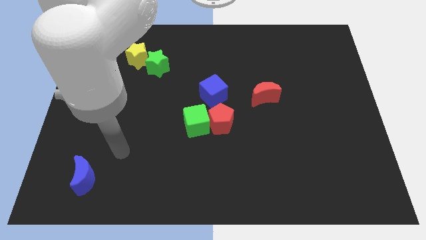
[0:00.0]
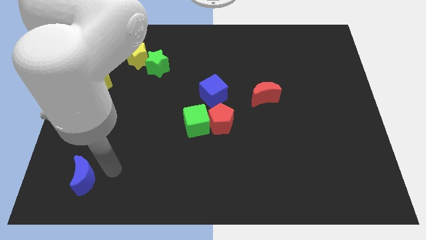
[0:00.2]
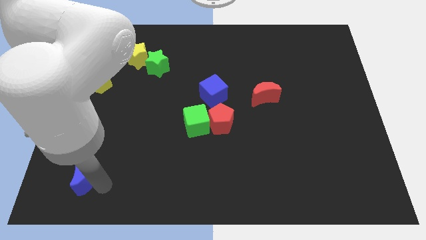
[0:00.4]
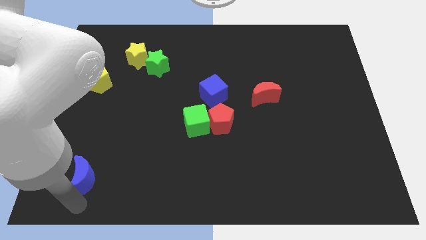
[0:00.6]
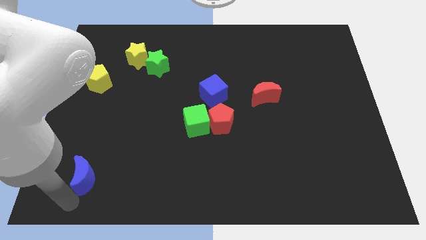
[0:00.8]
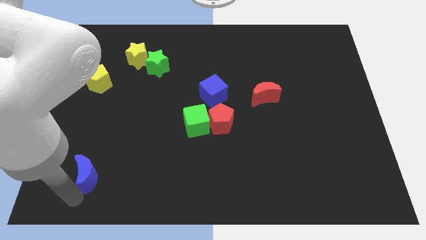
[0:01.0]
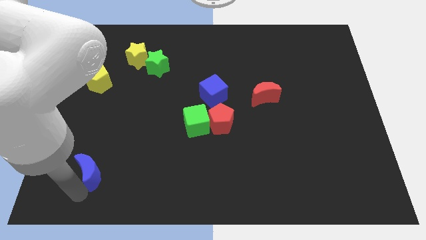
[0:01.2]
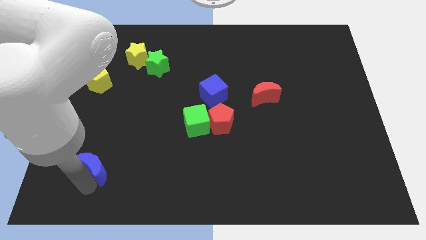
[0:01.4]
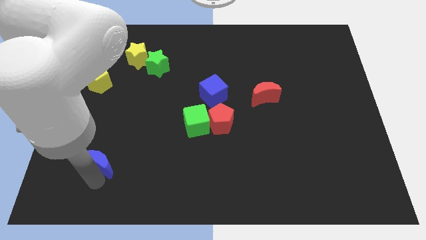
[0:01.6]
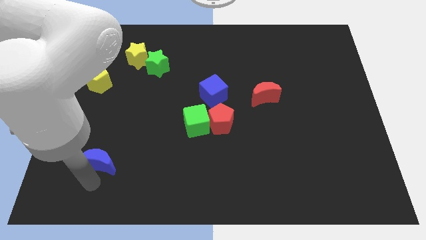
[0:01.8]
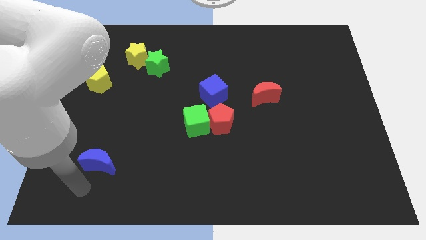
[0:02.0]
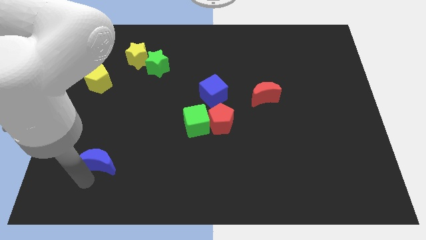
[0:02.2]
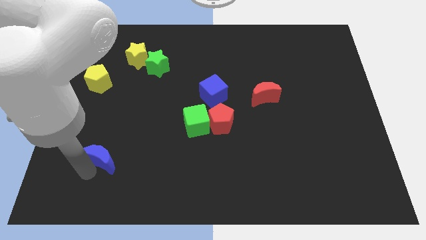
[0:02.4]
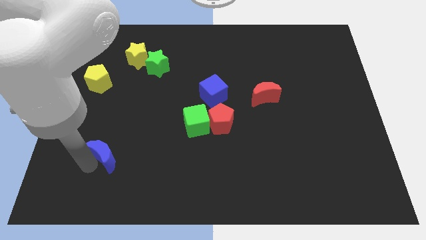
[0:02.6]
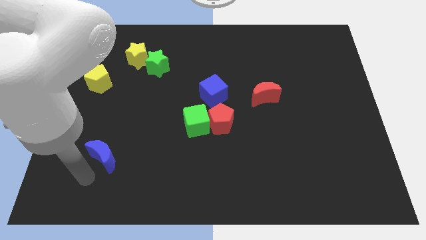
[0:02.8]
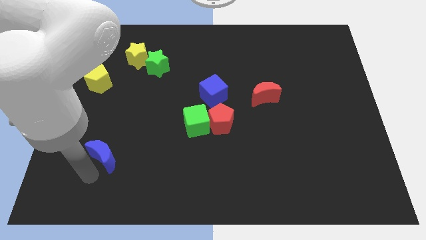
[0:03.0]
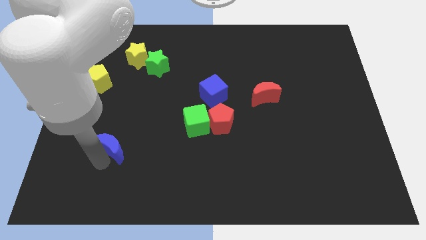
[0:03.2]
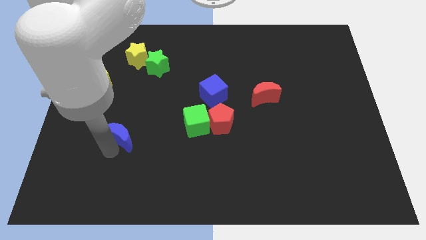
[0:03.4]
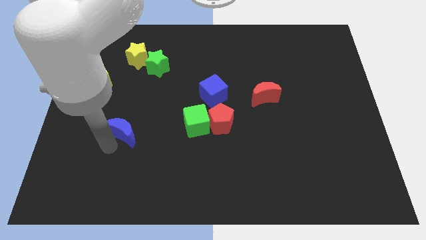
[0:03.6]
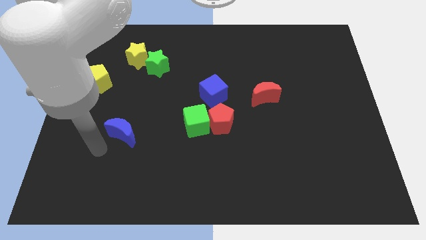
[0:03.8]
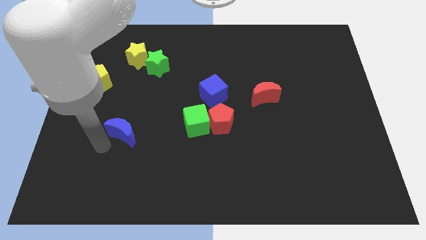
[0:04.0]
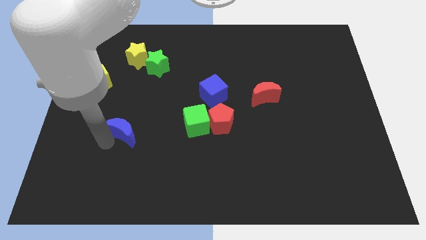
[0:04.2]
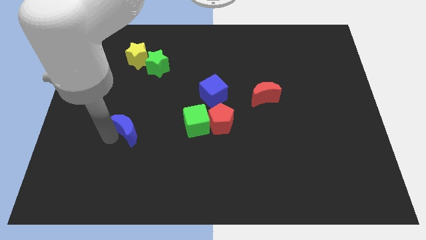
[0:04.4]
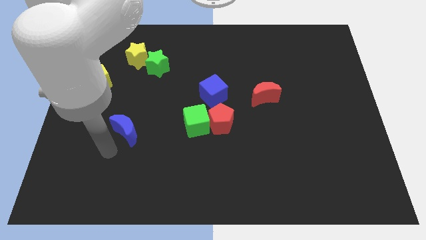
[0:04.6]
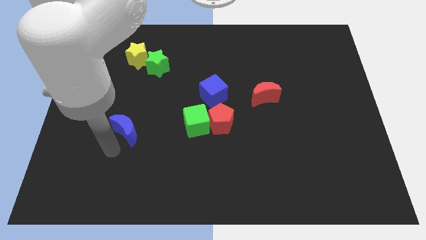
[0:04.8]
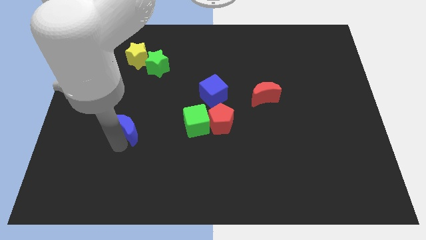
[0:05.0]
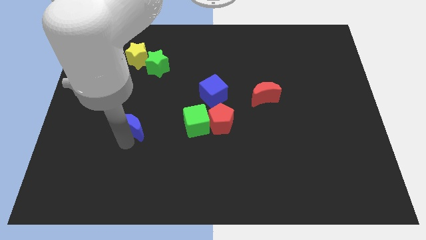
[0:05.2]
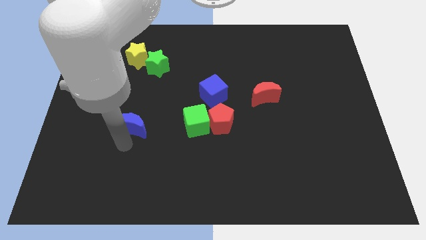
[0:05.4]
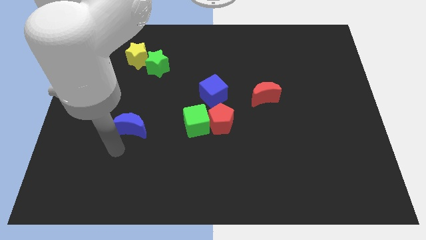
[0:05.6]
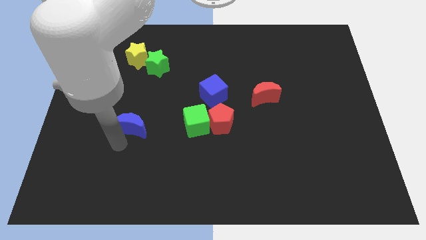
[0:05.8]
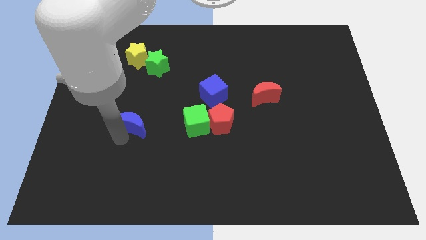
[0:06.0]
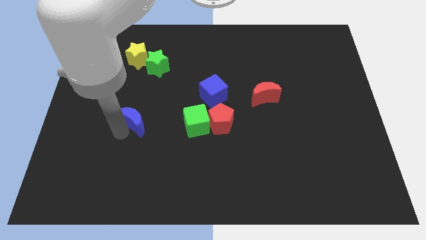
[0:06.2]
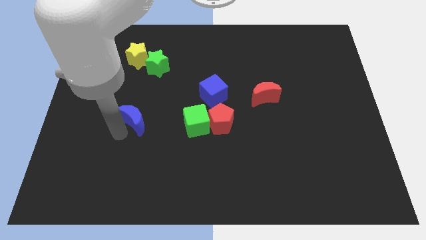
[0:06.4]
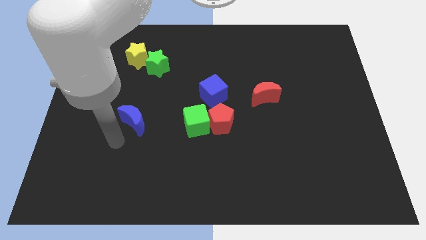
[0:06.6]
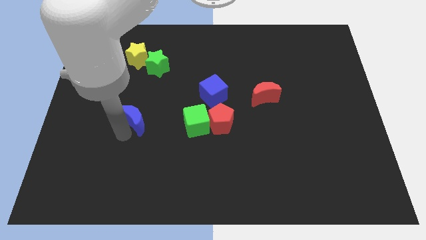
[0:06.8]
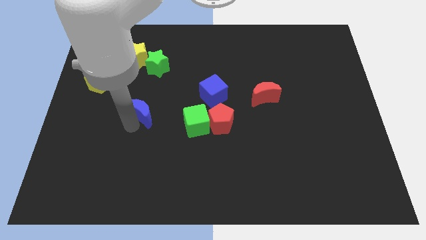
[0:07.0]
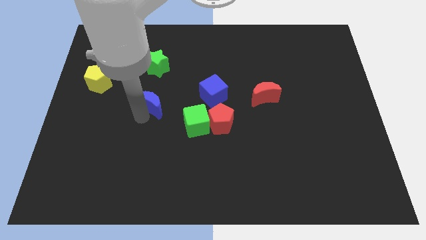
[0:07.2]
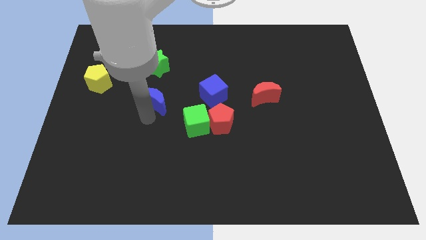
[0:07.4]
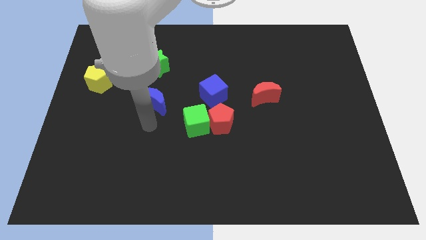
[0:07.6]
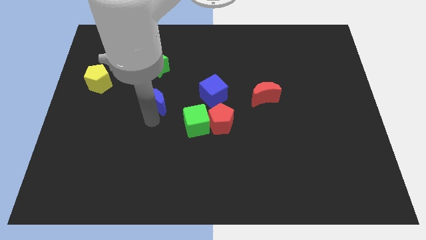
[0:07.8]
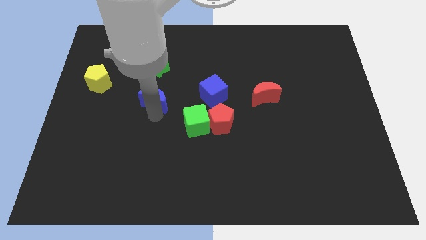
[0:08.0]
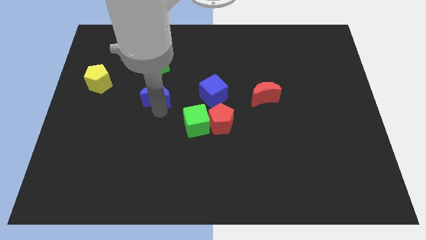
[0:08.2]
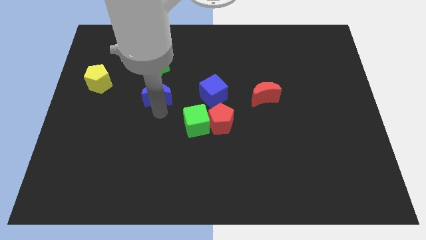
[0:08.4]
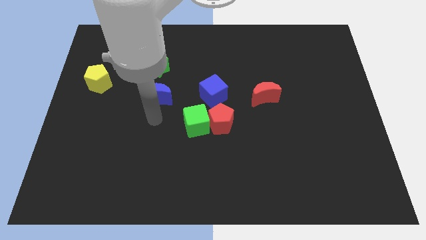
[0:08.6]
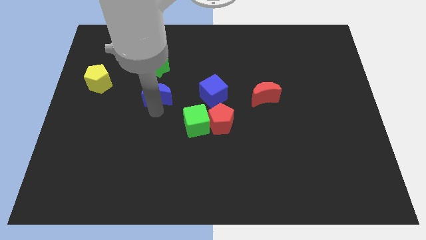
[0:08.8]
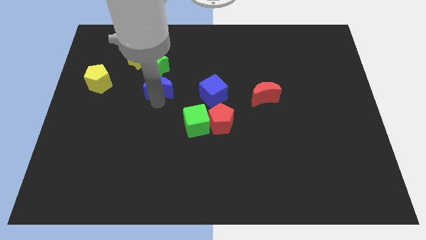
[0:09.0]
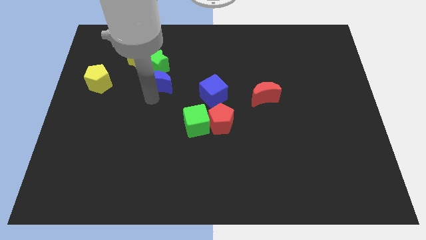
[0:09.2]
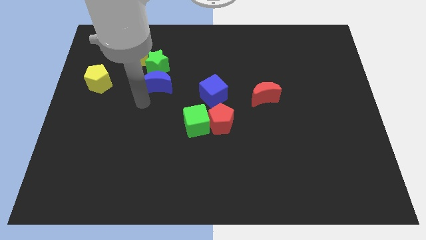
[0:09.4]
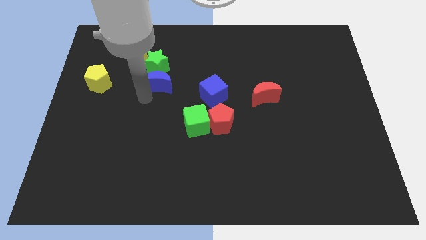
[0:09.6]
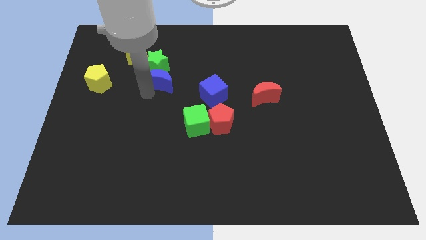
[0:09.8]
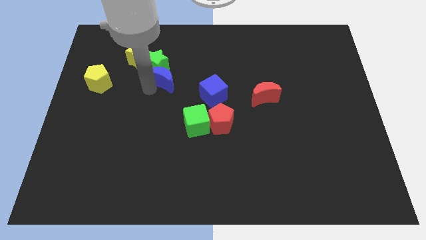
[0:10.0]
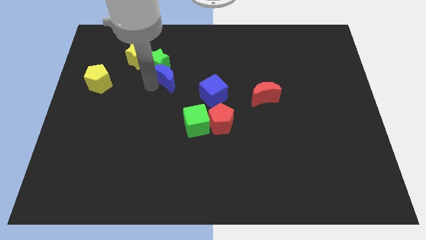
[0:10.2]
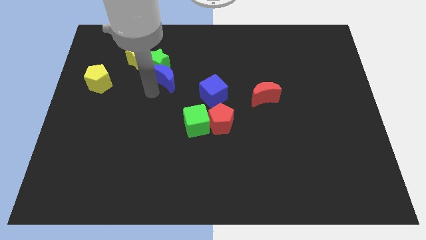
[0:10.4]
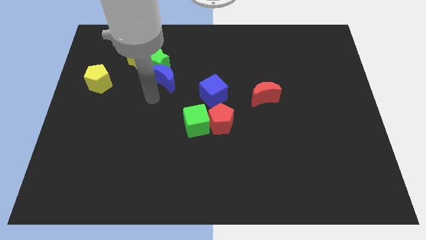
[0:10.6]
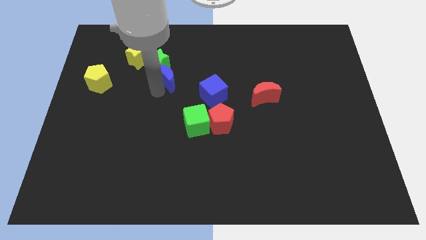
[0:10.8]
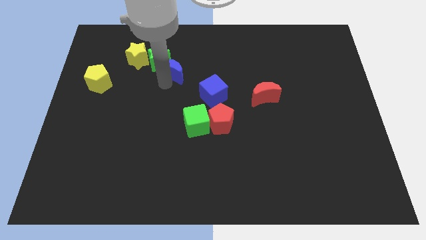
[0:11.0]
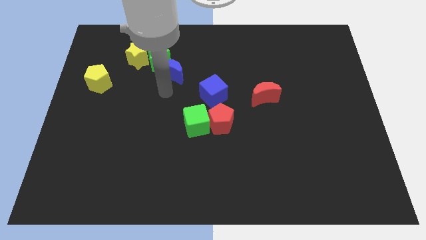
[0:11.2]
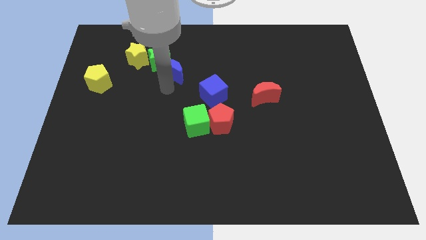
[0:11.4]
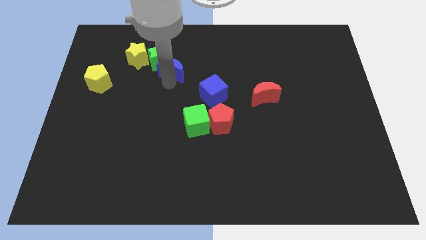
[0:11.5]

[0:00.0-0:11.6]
put the blue moon to the right side of the yellow star

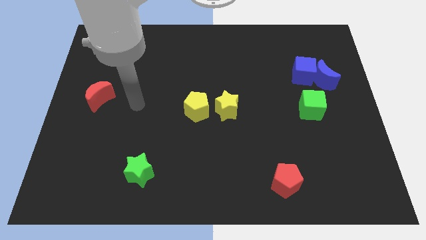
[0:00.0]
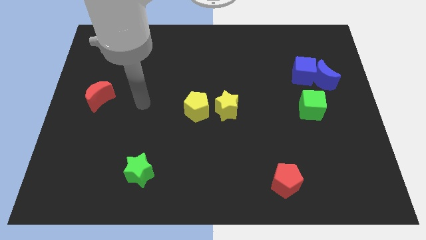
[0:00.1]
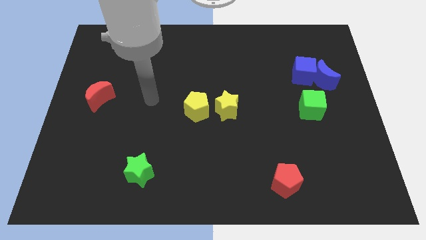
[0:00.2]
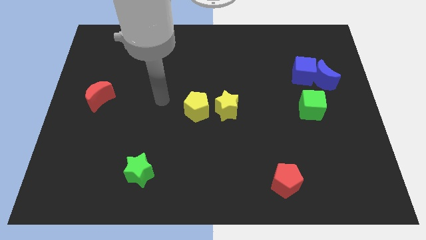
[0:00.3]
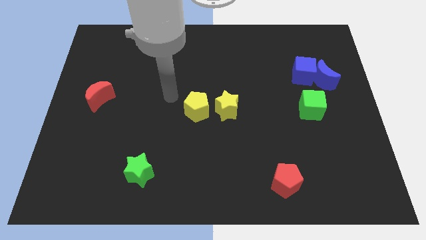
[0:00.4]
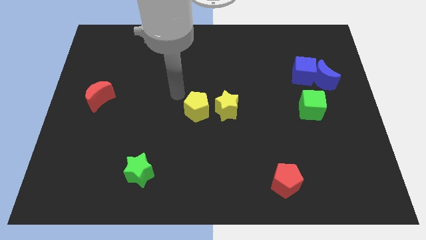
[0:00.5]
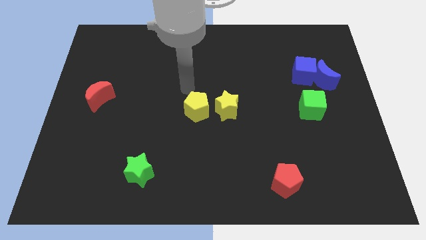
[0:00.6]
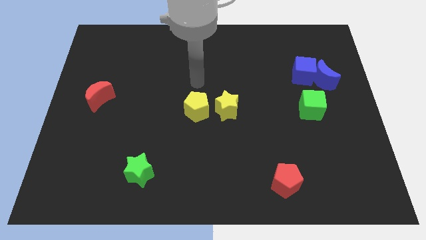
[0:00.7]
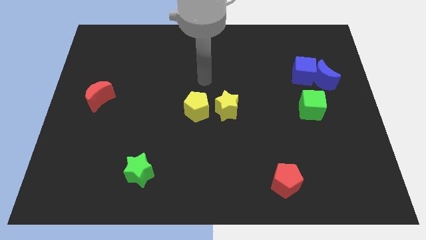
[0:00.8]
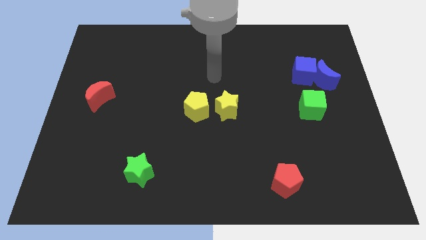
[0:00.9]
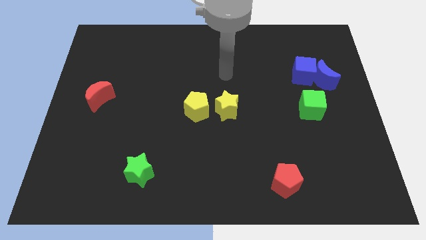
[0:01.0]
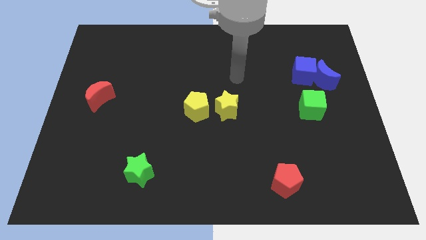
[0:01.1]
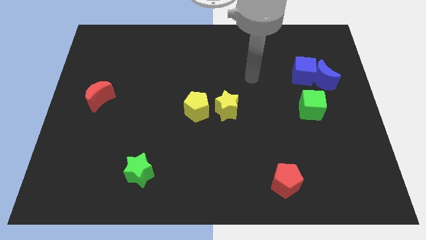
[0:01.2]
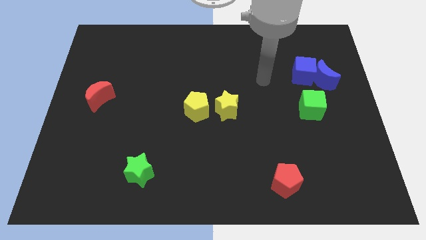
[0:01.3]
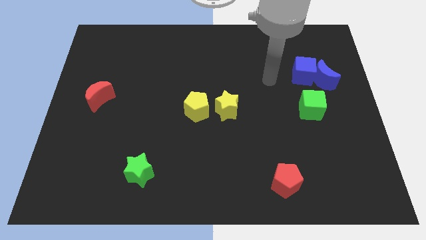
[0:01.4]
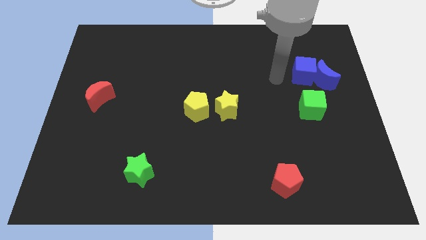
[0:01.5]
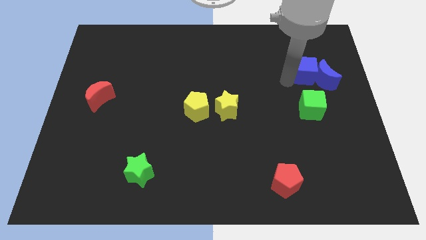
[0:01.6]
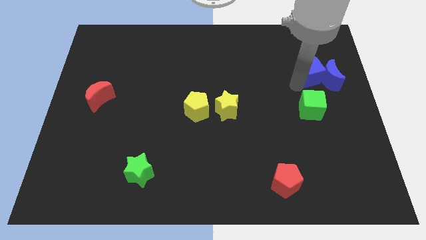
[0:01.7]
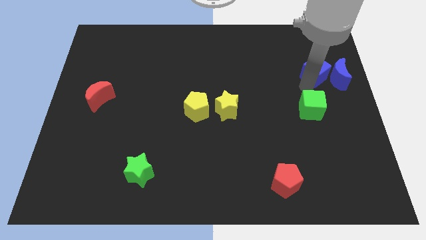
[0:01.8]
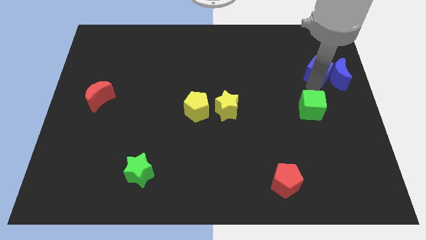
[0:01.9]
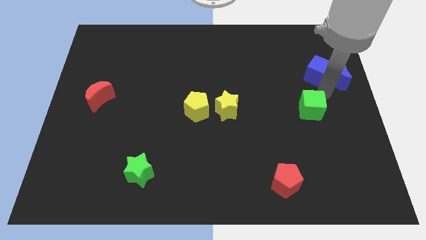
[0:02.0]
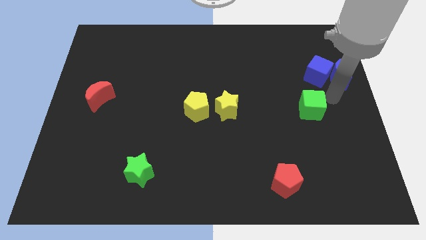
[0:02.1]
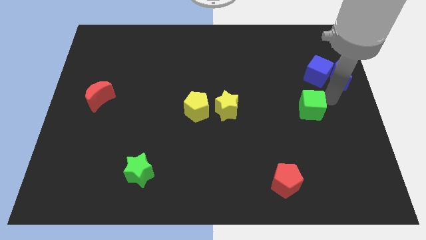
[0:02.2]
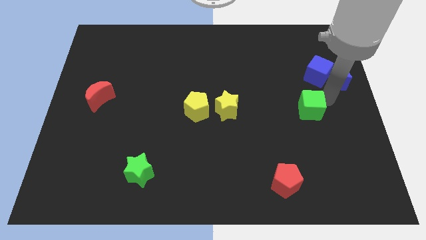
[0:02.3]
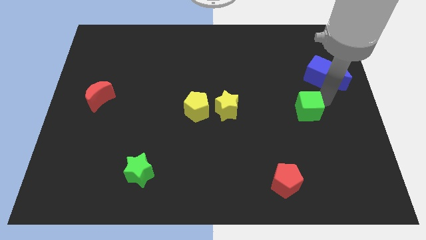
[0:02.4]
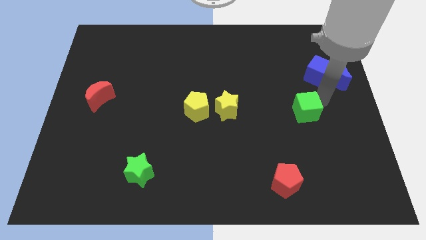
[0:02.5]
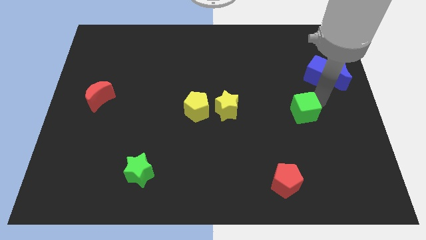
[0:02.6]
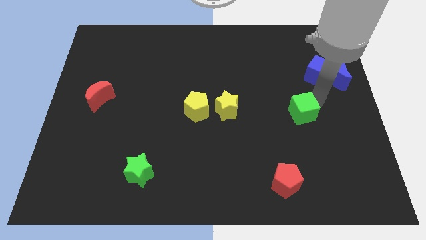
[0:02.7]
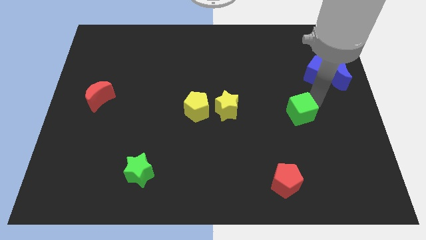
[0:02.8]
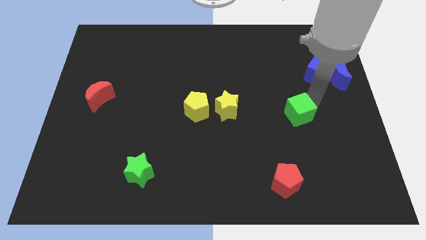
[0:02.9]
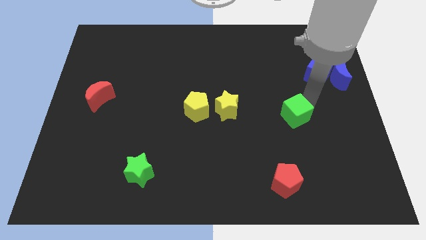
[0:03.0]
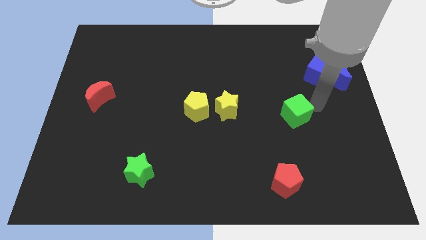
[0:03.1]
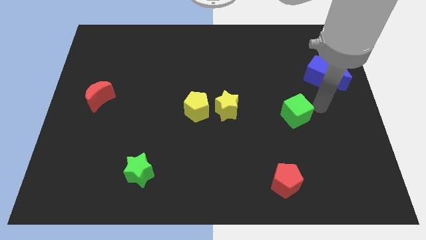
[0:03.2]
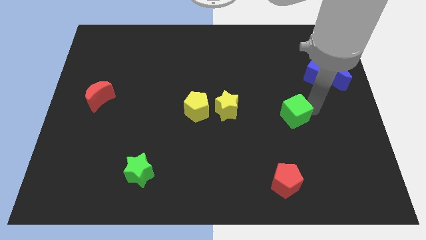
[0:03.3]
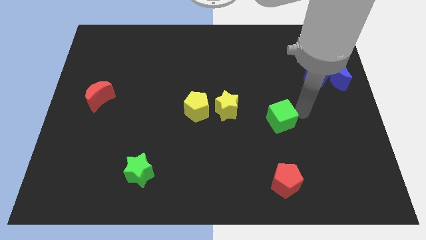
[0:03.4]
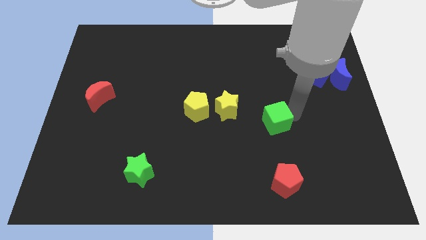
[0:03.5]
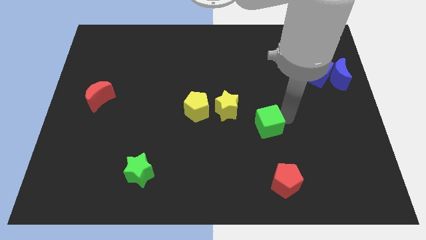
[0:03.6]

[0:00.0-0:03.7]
put the green cube to the bottom right of the yellow star
